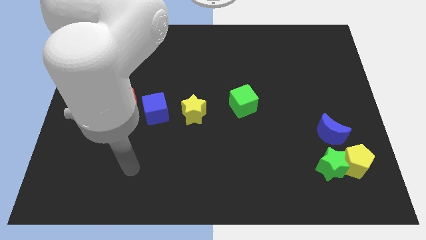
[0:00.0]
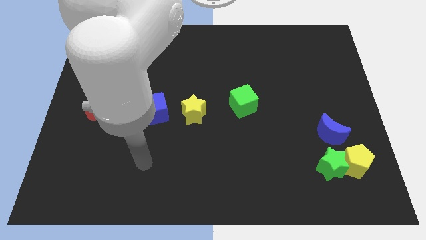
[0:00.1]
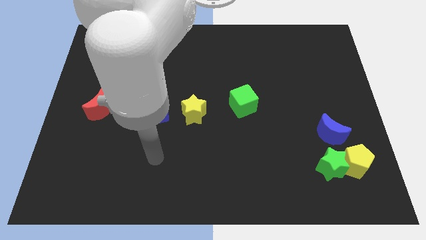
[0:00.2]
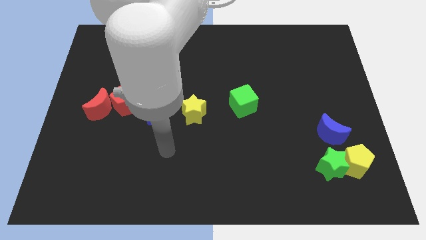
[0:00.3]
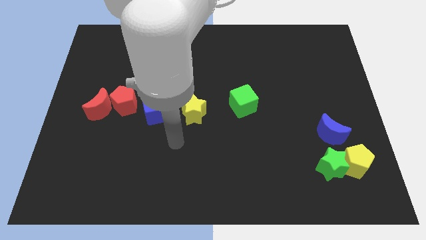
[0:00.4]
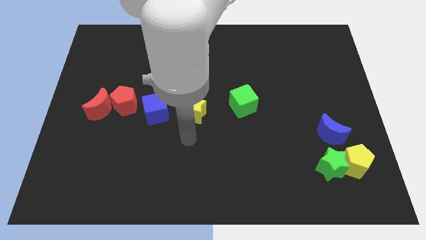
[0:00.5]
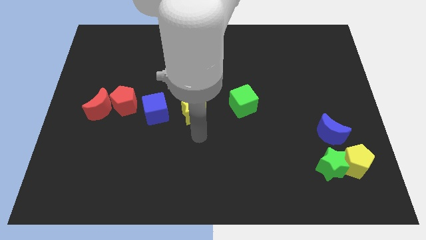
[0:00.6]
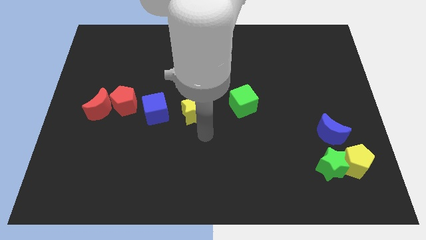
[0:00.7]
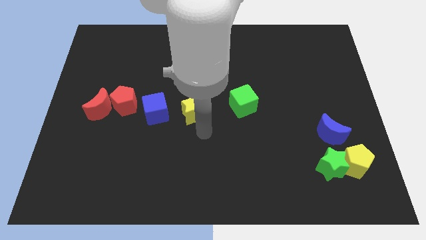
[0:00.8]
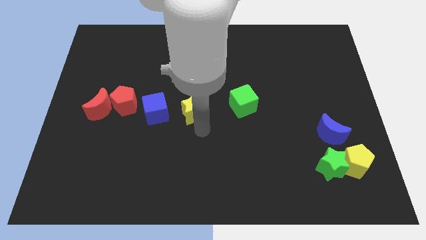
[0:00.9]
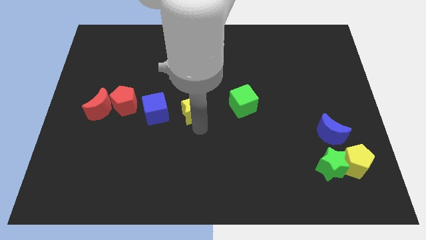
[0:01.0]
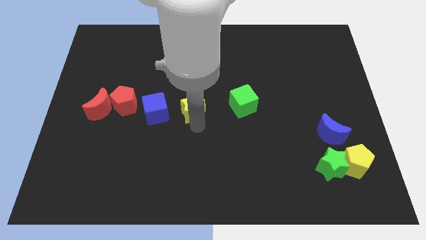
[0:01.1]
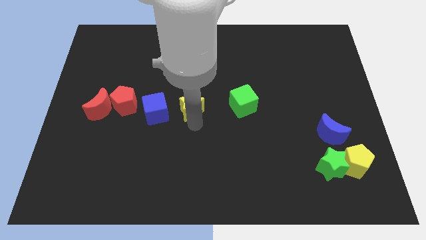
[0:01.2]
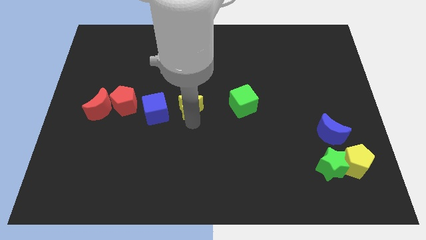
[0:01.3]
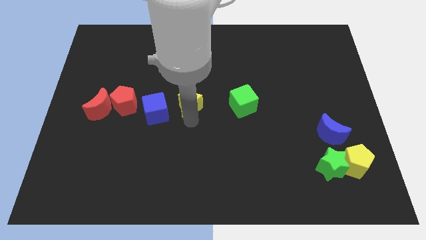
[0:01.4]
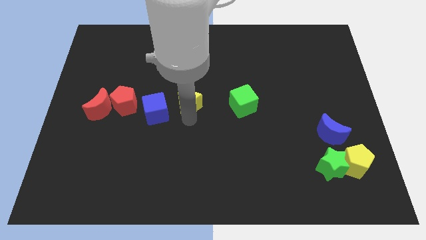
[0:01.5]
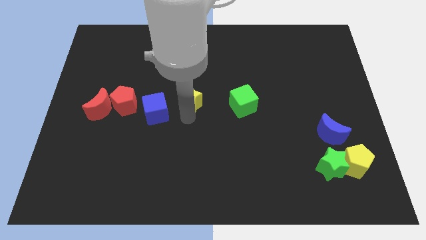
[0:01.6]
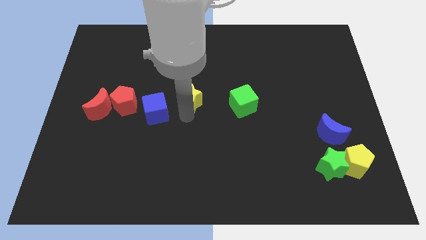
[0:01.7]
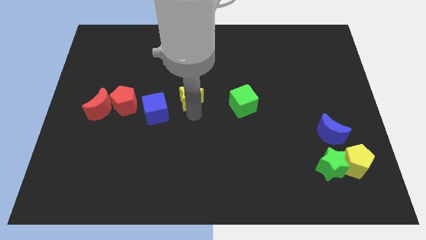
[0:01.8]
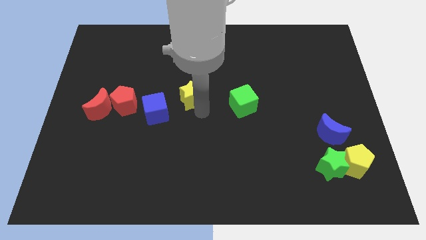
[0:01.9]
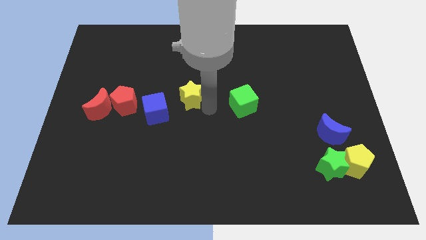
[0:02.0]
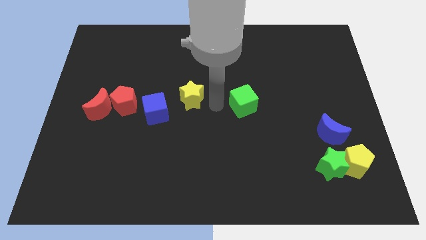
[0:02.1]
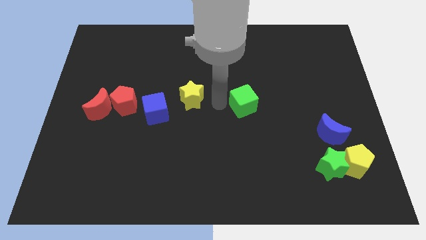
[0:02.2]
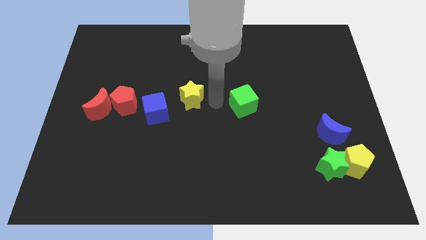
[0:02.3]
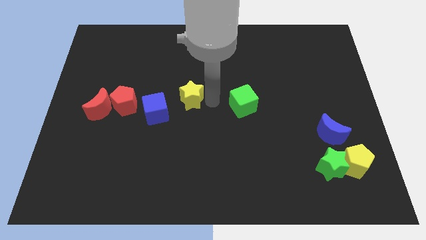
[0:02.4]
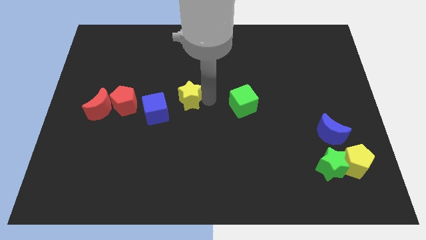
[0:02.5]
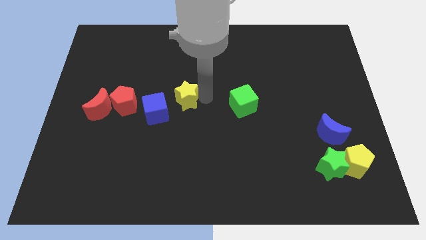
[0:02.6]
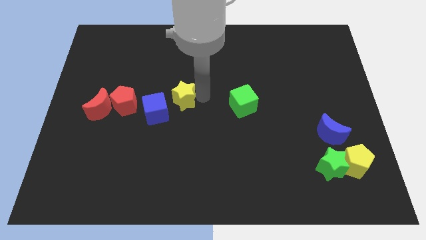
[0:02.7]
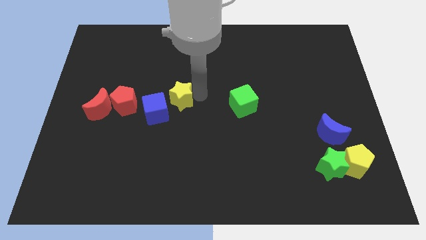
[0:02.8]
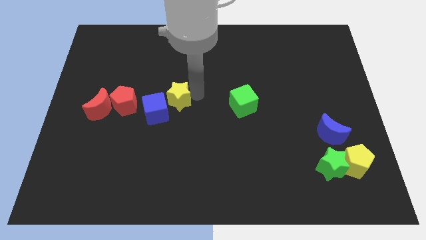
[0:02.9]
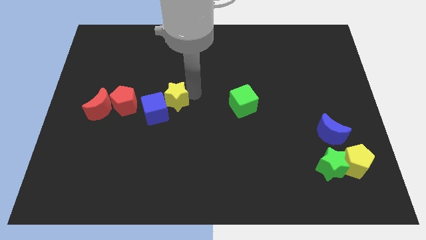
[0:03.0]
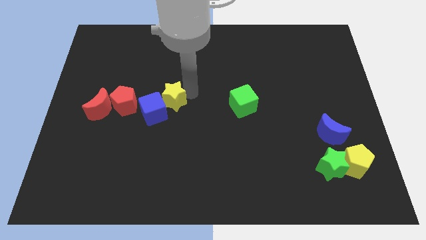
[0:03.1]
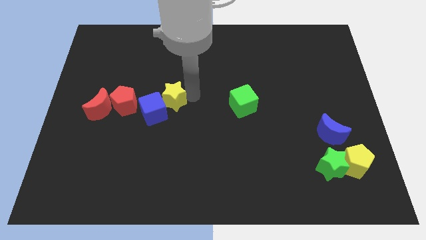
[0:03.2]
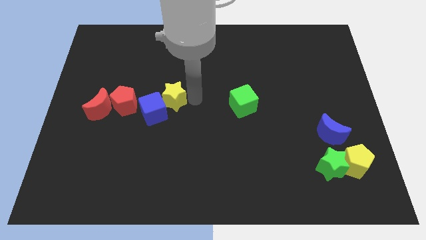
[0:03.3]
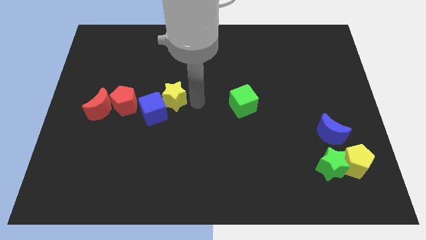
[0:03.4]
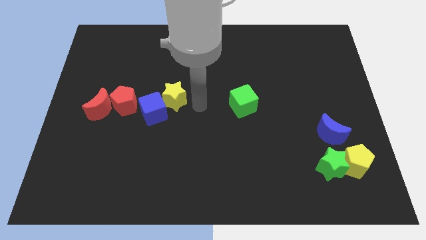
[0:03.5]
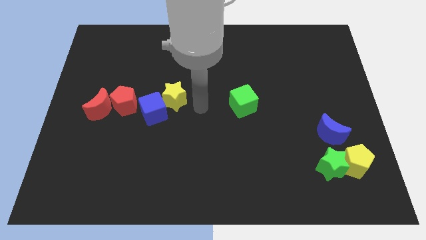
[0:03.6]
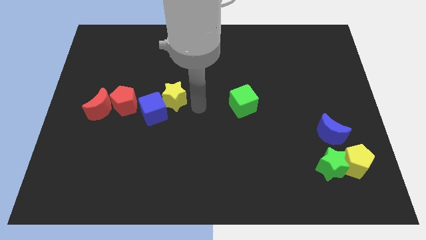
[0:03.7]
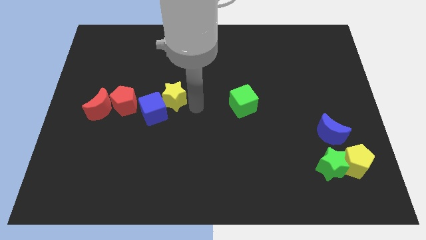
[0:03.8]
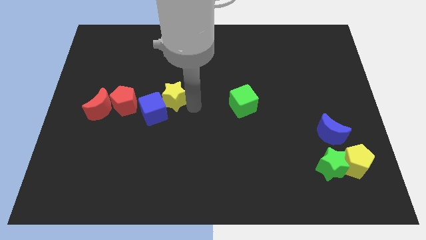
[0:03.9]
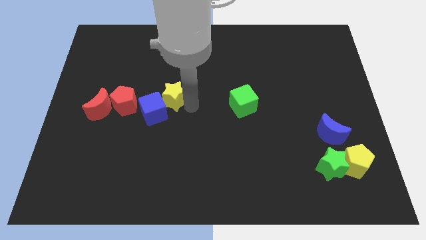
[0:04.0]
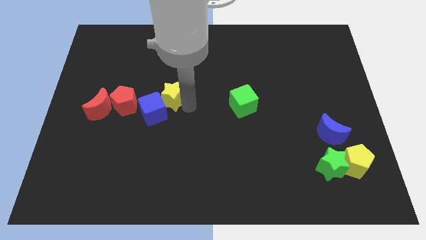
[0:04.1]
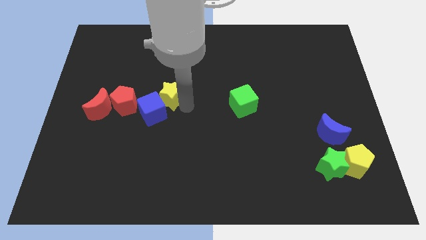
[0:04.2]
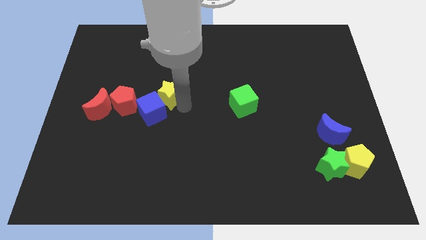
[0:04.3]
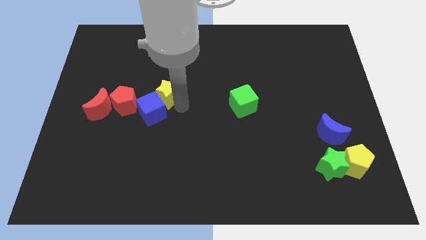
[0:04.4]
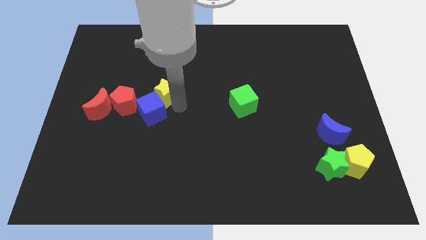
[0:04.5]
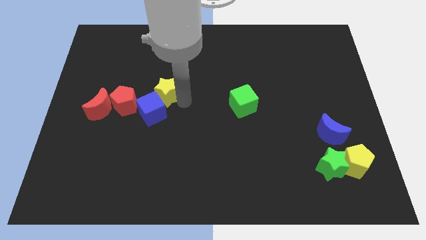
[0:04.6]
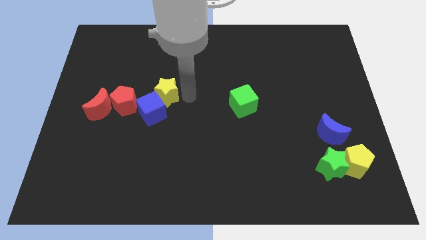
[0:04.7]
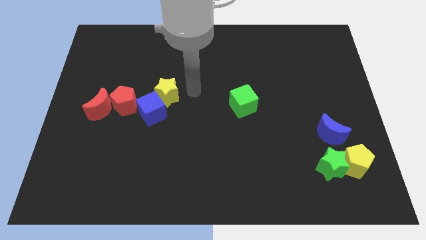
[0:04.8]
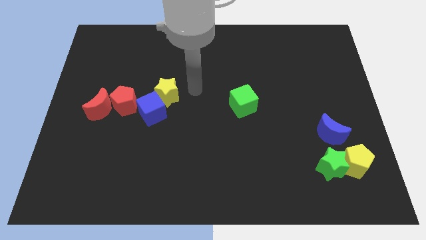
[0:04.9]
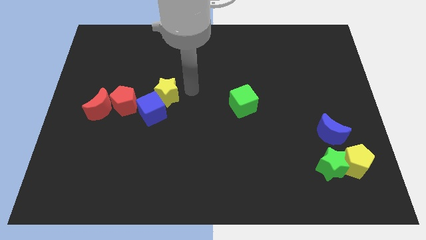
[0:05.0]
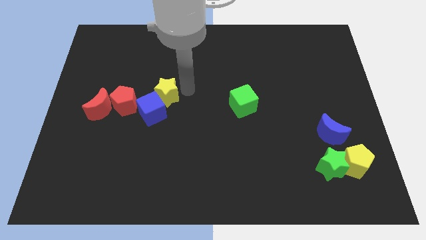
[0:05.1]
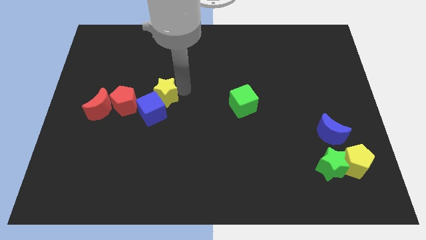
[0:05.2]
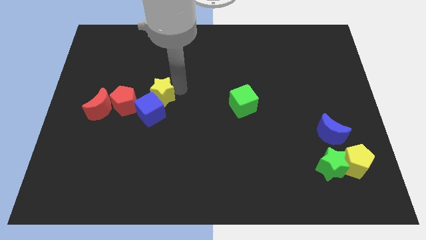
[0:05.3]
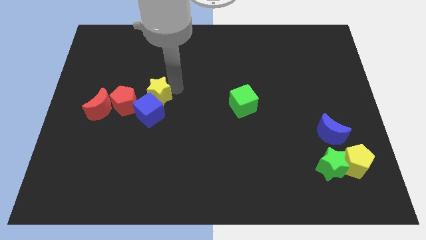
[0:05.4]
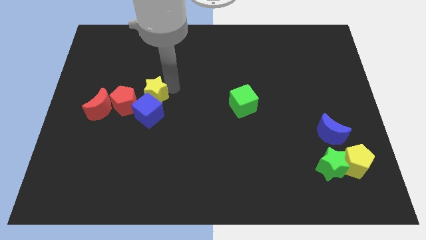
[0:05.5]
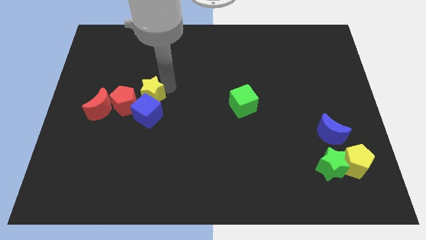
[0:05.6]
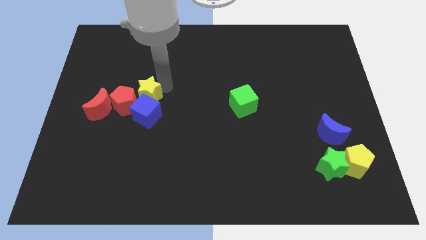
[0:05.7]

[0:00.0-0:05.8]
push the yellow star towards the red pentagon

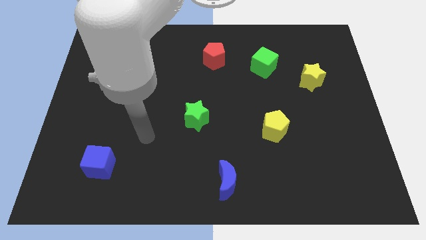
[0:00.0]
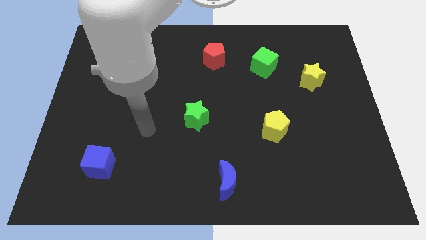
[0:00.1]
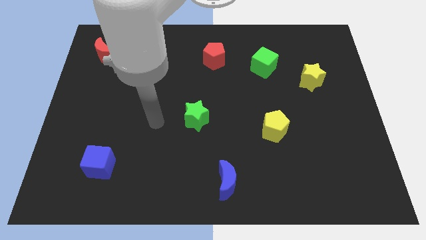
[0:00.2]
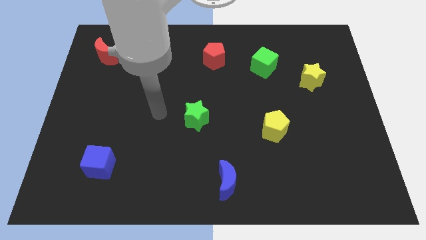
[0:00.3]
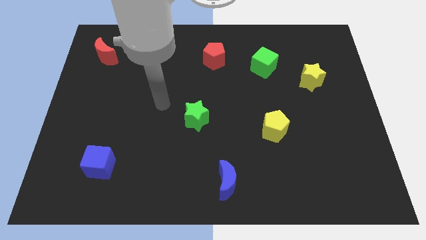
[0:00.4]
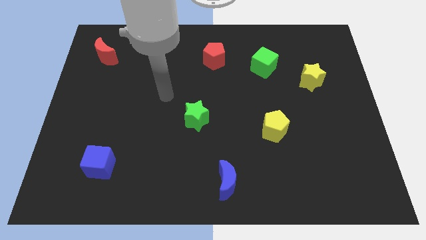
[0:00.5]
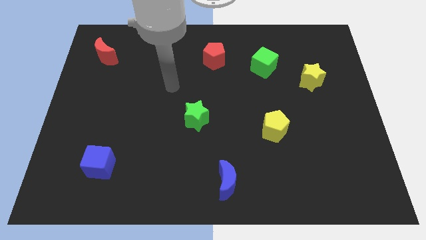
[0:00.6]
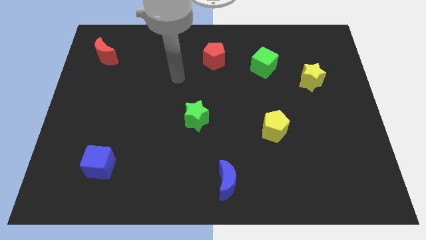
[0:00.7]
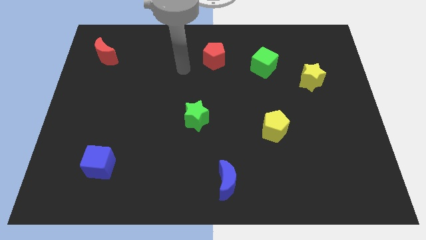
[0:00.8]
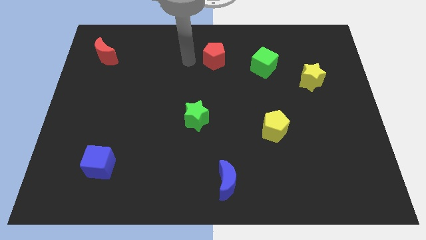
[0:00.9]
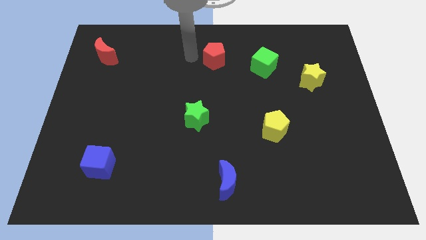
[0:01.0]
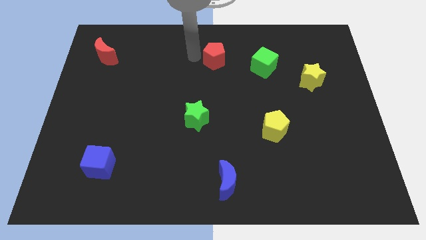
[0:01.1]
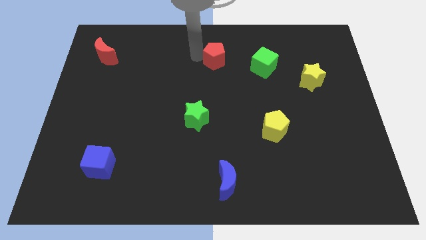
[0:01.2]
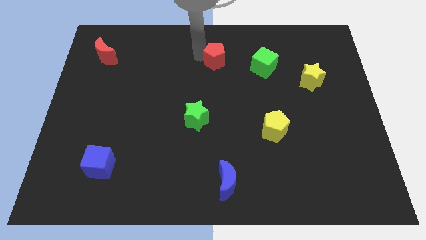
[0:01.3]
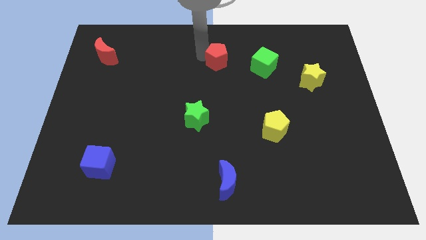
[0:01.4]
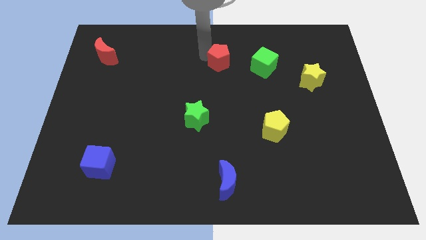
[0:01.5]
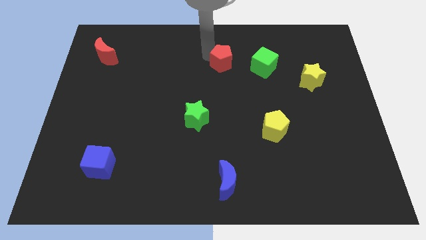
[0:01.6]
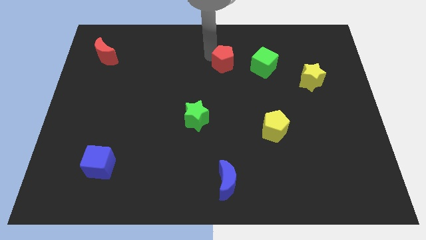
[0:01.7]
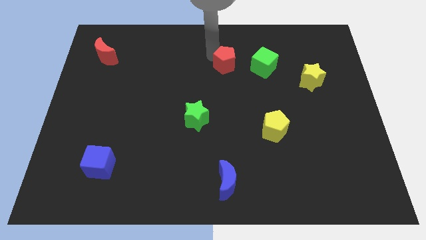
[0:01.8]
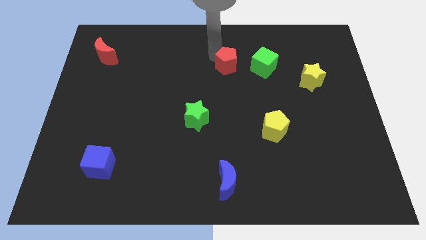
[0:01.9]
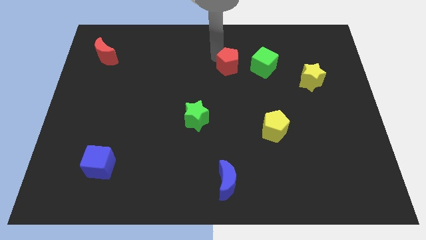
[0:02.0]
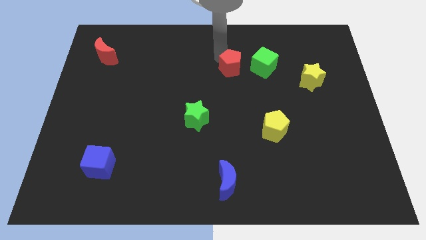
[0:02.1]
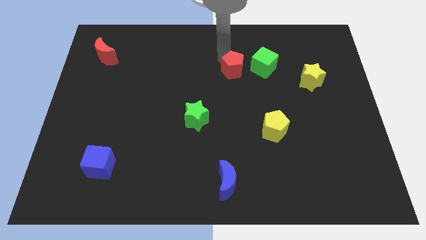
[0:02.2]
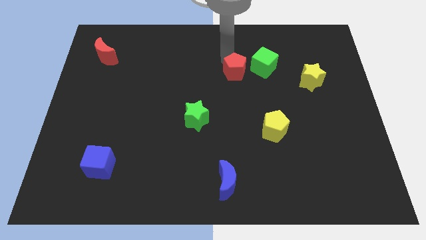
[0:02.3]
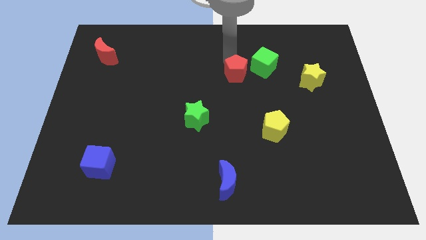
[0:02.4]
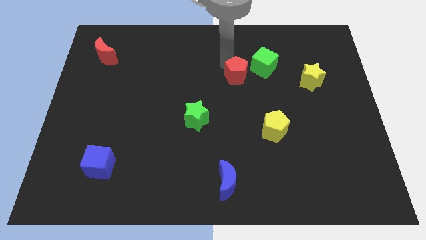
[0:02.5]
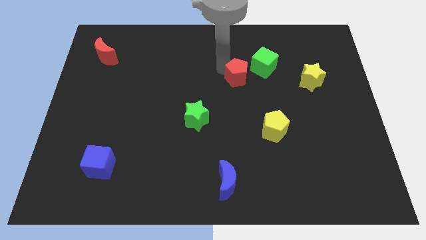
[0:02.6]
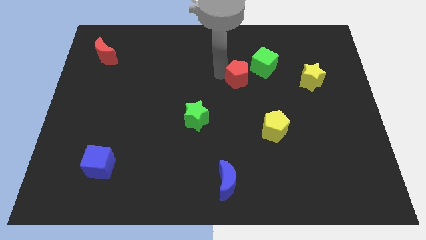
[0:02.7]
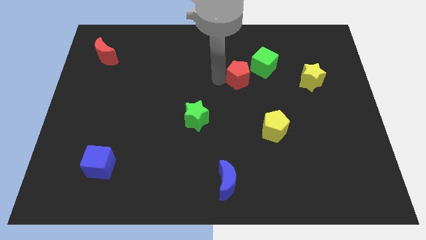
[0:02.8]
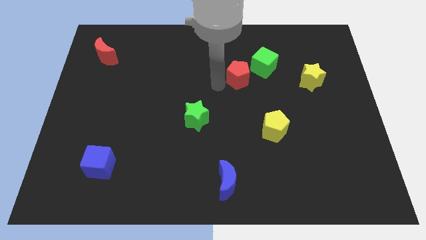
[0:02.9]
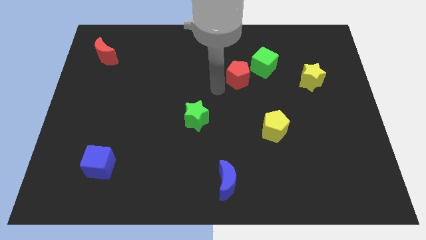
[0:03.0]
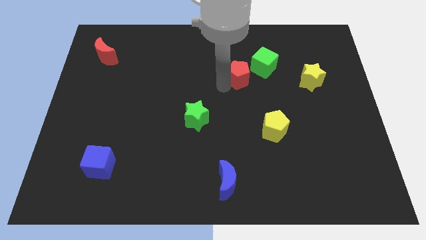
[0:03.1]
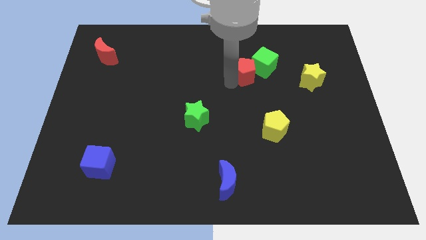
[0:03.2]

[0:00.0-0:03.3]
slide the red pentagon next to the green cube
